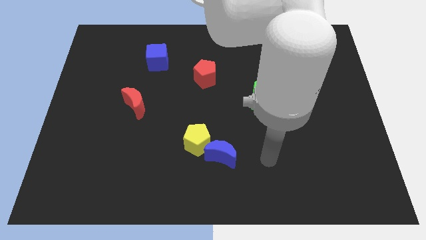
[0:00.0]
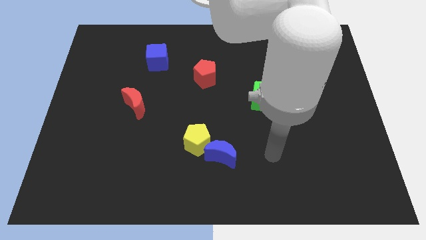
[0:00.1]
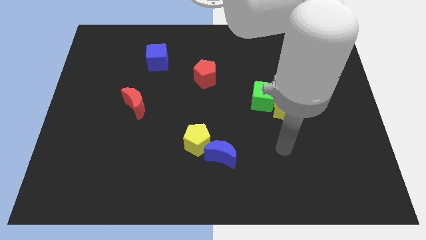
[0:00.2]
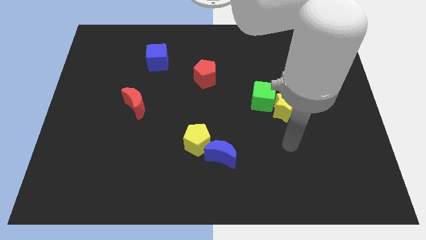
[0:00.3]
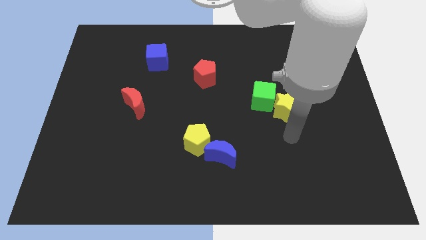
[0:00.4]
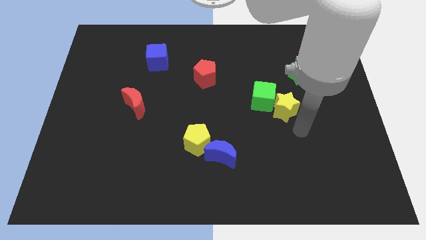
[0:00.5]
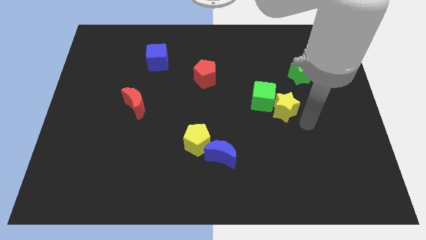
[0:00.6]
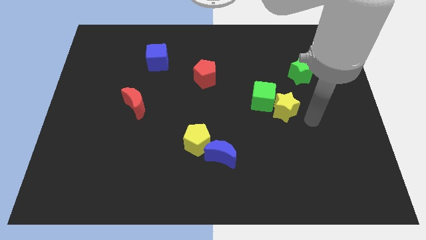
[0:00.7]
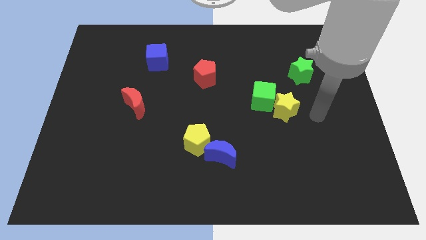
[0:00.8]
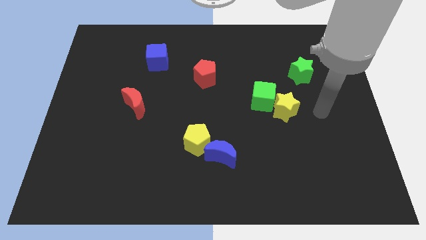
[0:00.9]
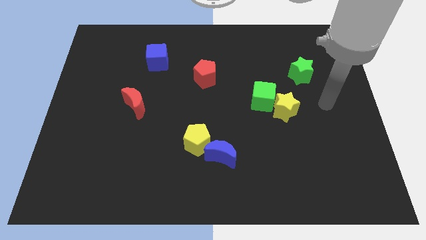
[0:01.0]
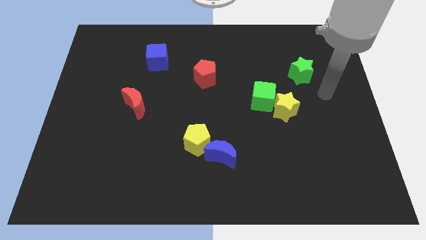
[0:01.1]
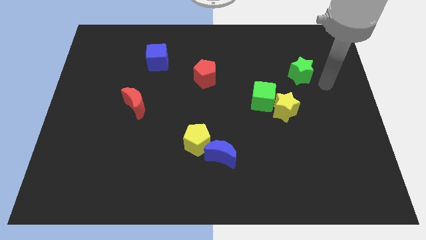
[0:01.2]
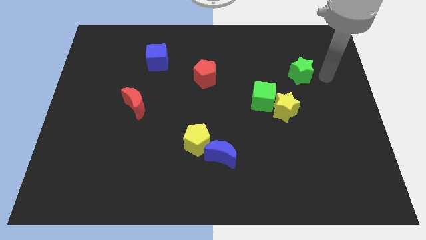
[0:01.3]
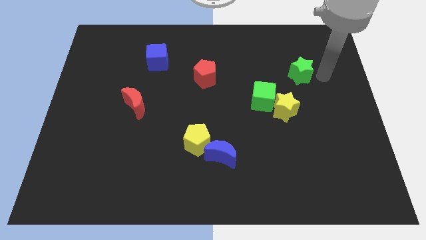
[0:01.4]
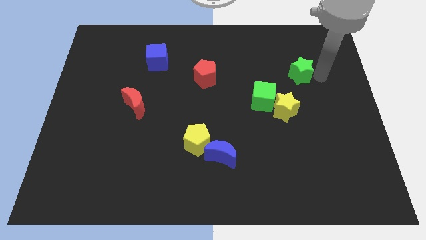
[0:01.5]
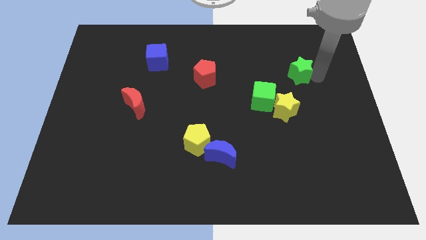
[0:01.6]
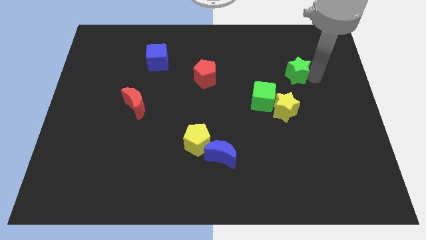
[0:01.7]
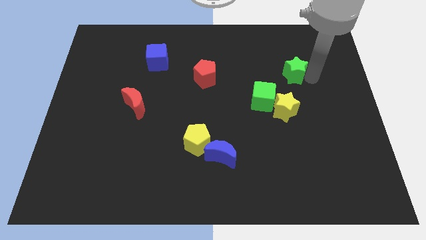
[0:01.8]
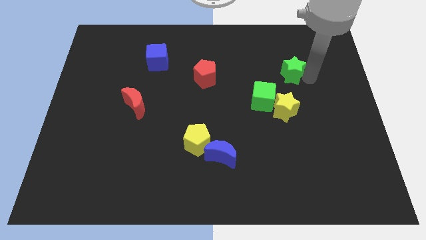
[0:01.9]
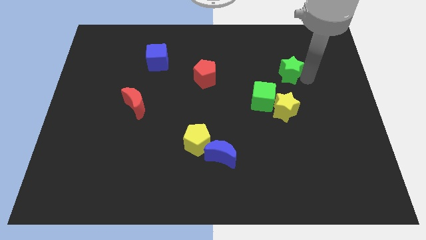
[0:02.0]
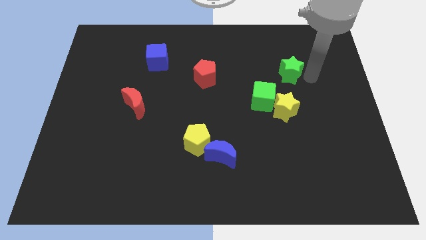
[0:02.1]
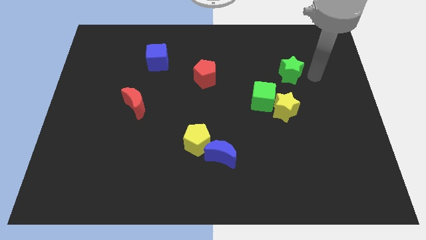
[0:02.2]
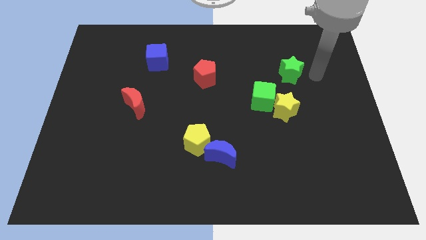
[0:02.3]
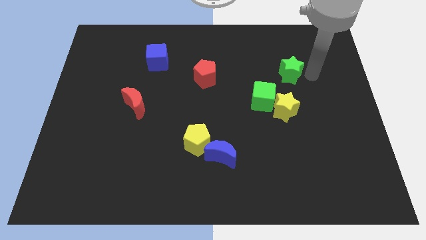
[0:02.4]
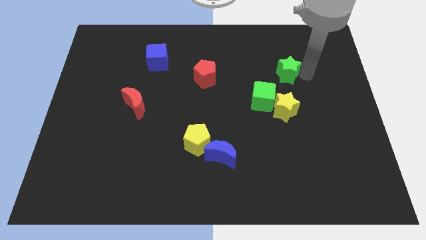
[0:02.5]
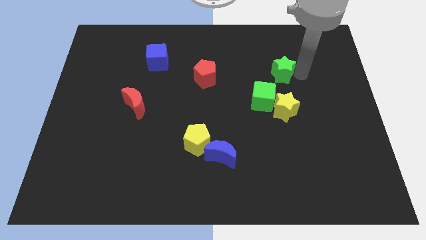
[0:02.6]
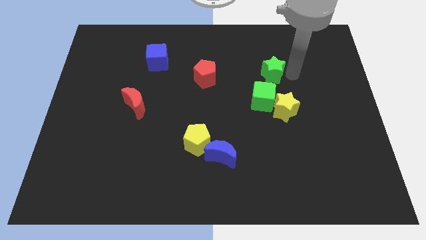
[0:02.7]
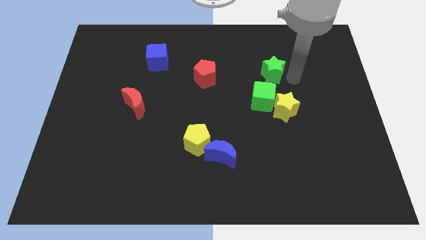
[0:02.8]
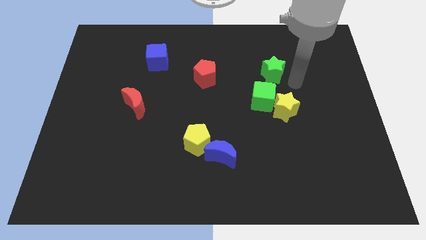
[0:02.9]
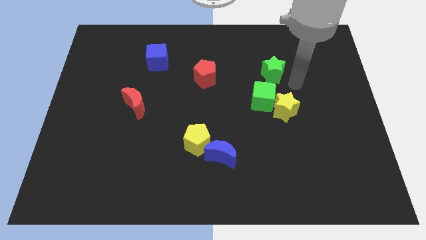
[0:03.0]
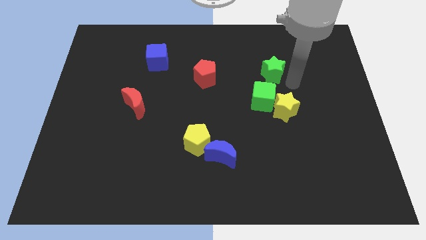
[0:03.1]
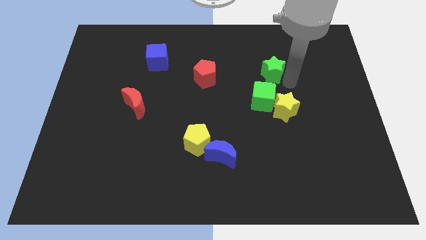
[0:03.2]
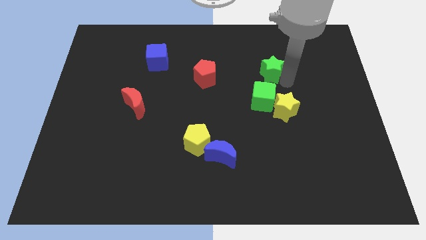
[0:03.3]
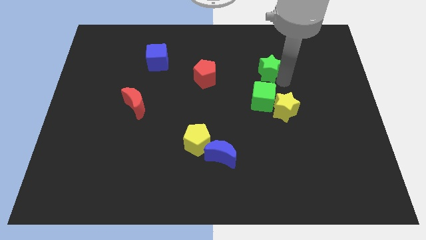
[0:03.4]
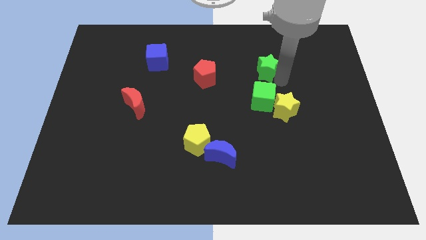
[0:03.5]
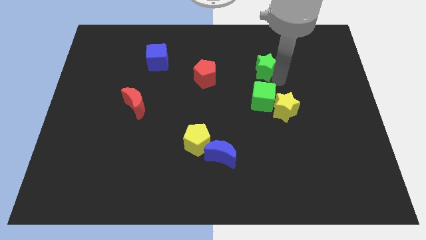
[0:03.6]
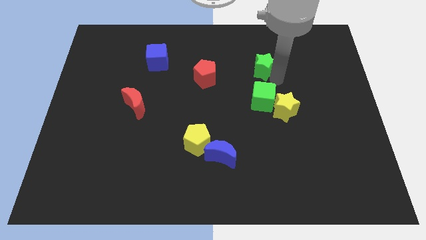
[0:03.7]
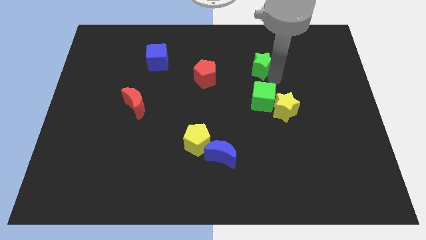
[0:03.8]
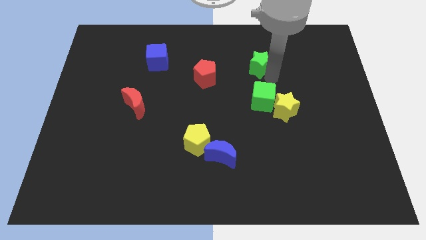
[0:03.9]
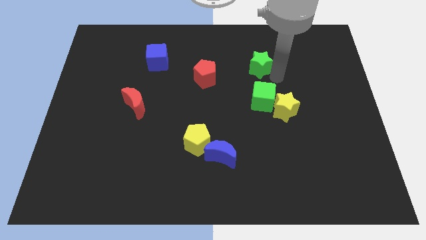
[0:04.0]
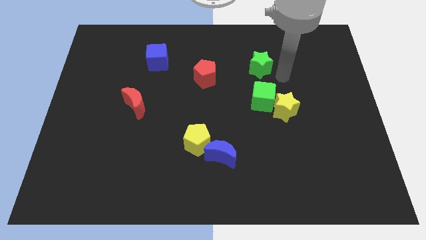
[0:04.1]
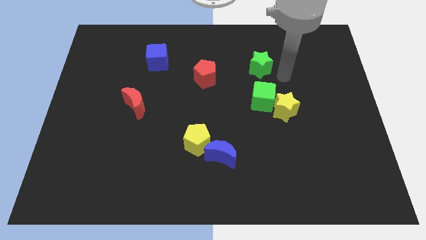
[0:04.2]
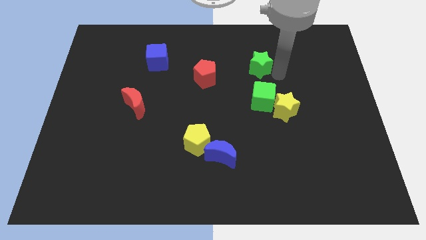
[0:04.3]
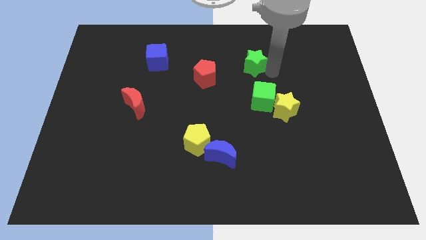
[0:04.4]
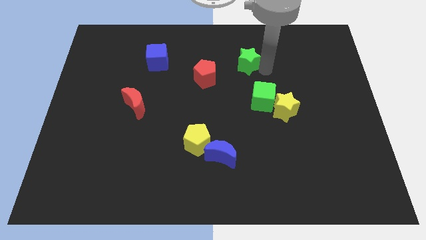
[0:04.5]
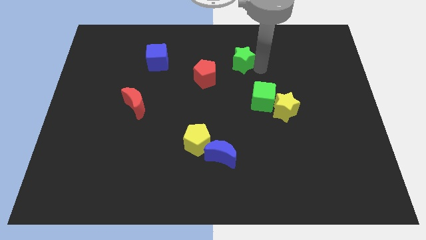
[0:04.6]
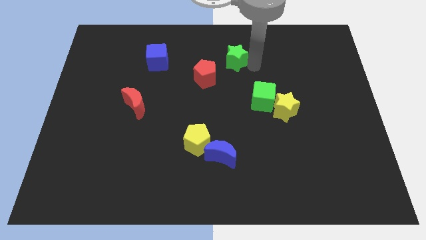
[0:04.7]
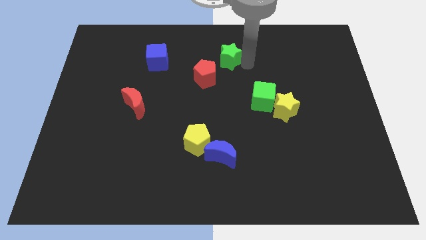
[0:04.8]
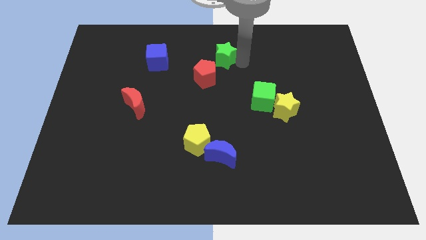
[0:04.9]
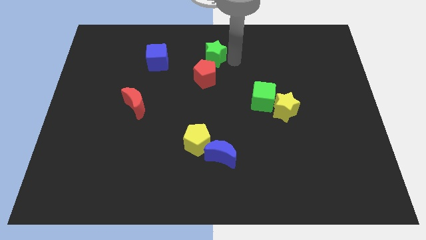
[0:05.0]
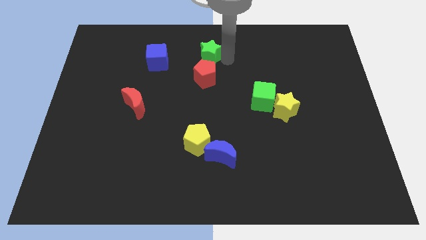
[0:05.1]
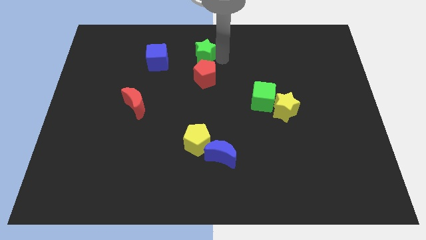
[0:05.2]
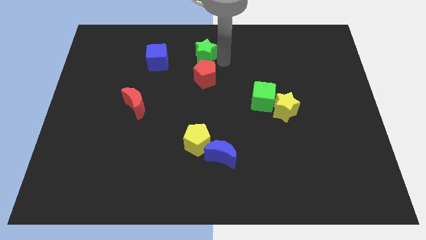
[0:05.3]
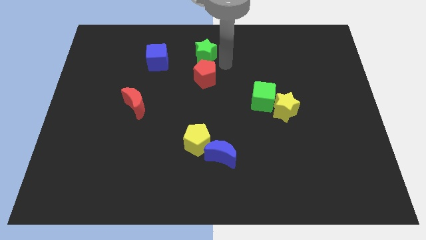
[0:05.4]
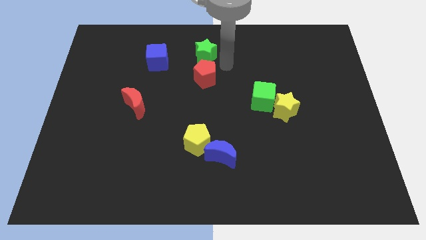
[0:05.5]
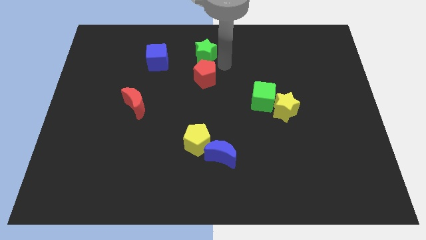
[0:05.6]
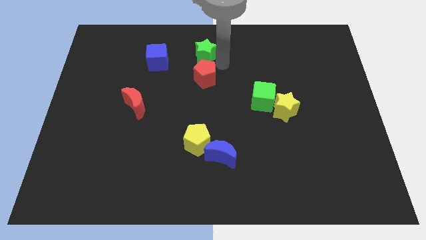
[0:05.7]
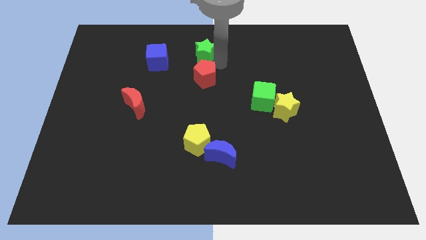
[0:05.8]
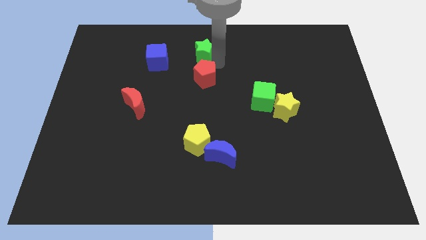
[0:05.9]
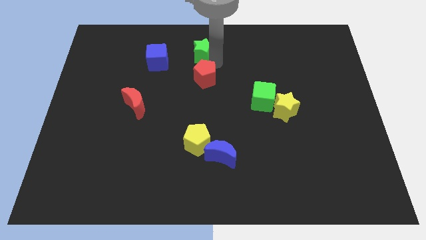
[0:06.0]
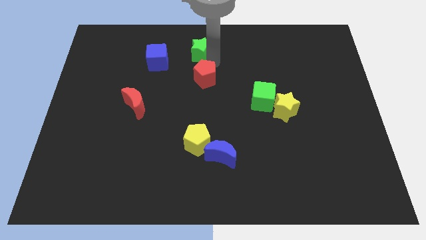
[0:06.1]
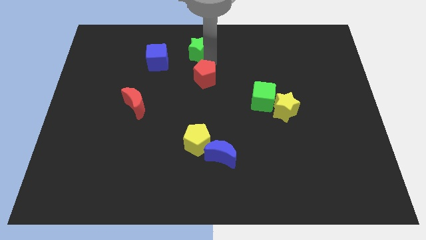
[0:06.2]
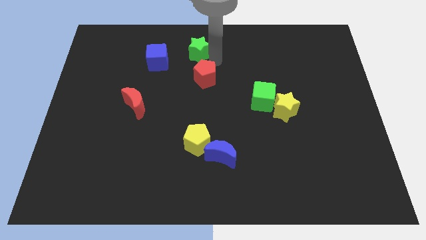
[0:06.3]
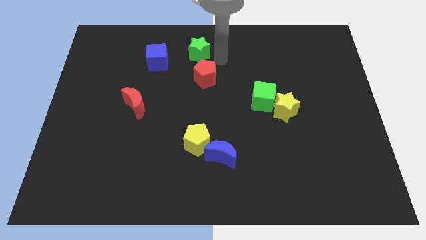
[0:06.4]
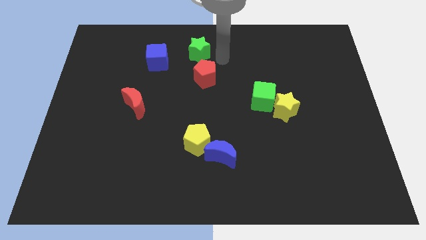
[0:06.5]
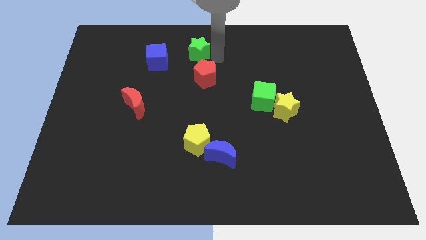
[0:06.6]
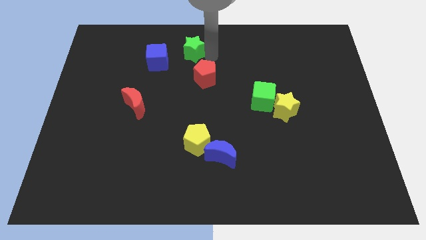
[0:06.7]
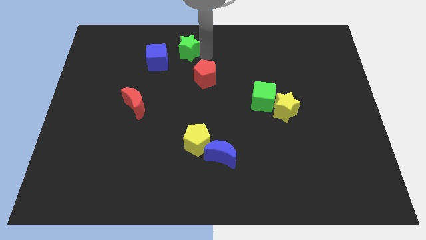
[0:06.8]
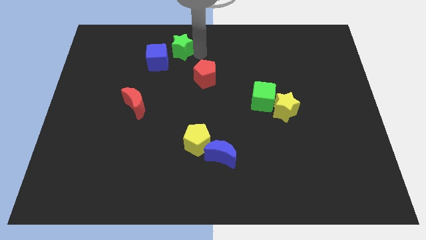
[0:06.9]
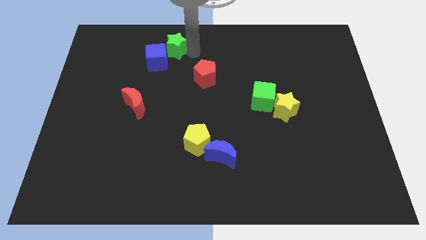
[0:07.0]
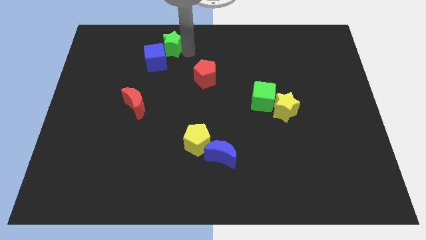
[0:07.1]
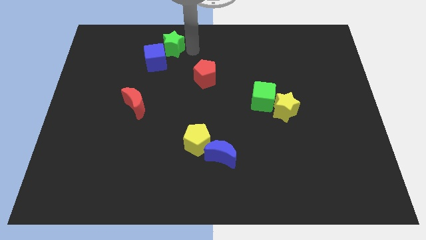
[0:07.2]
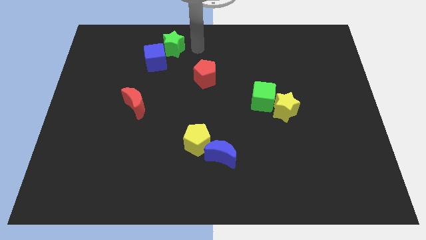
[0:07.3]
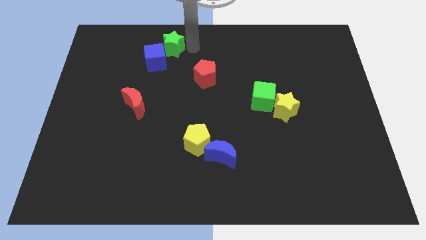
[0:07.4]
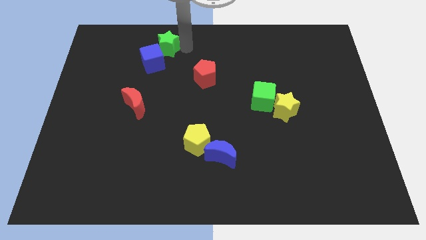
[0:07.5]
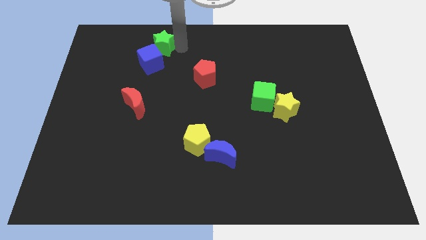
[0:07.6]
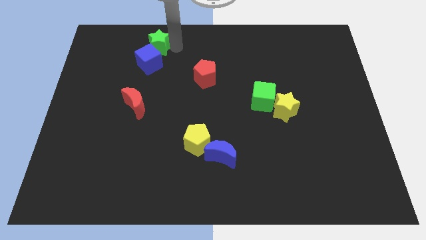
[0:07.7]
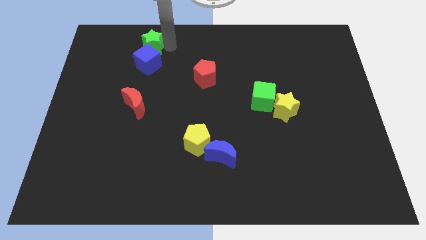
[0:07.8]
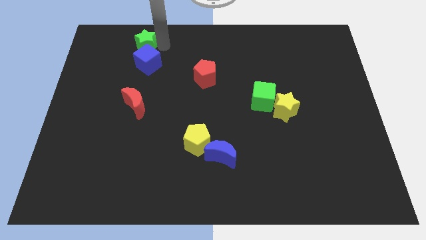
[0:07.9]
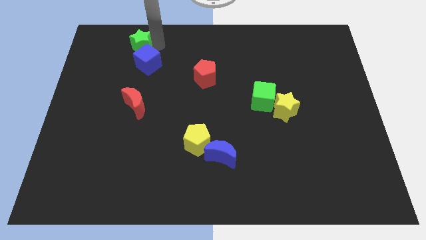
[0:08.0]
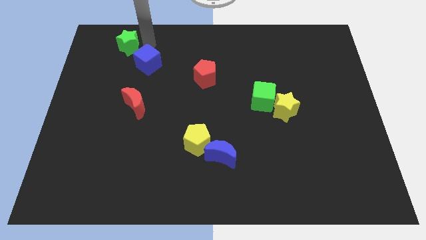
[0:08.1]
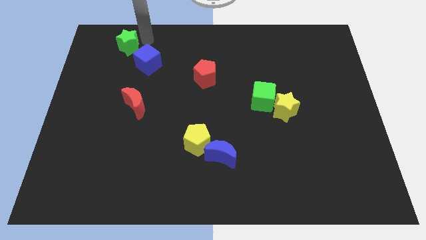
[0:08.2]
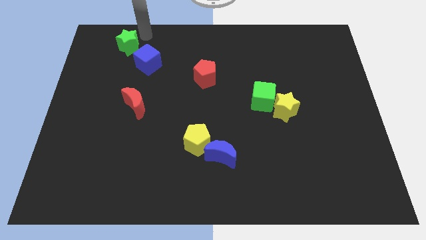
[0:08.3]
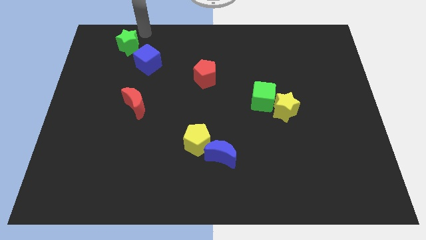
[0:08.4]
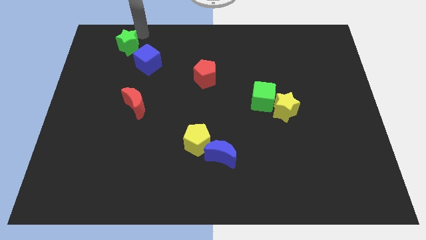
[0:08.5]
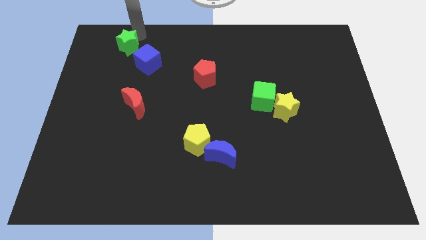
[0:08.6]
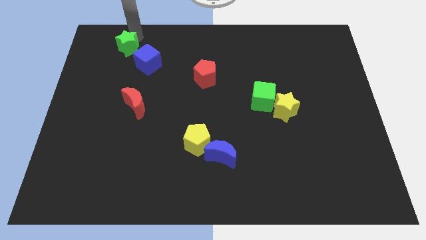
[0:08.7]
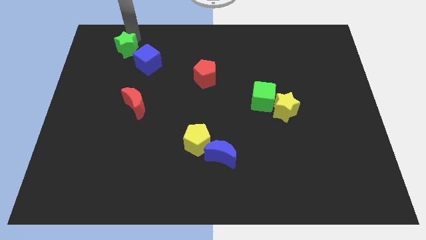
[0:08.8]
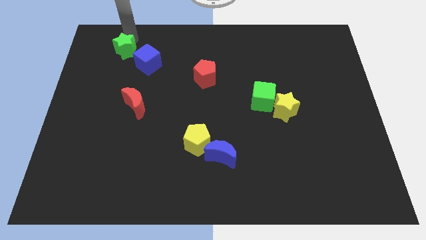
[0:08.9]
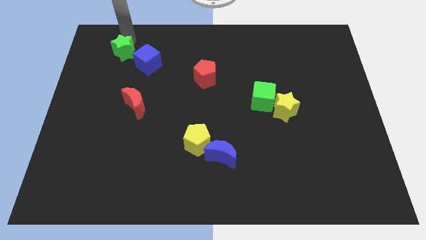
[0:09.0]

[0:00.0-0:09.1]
put the green star to the left side of the blue cube
